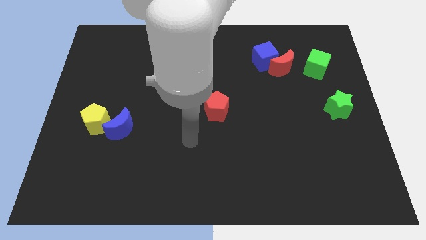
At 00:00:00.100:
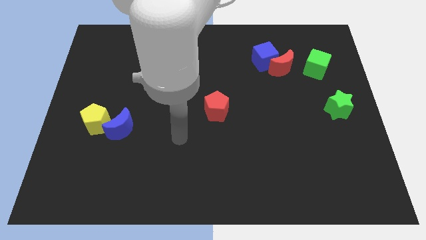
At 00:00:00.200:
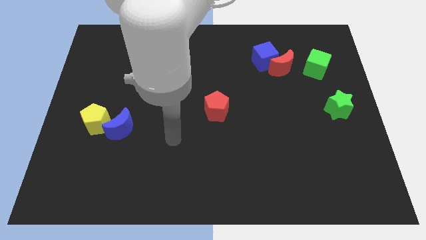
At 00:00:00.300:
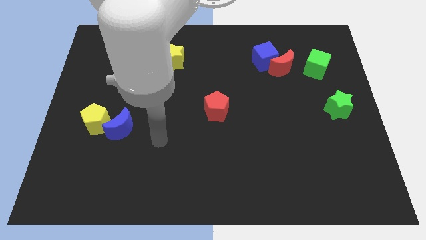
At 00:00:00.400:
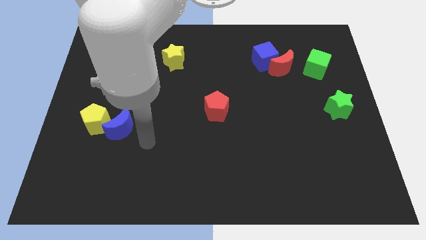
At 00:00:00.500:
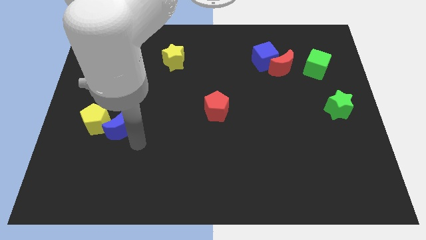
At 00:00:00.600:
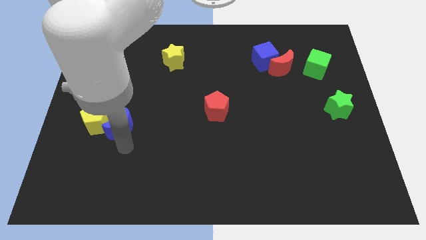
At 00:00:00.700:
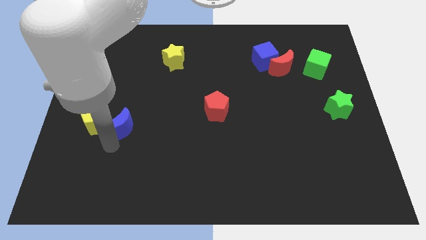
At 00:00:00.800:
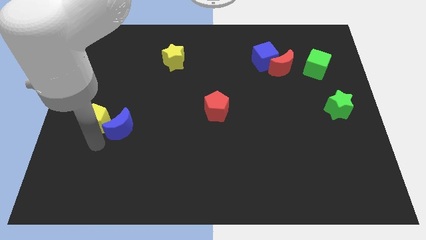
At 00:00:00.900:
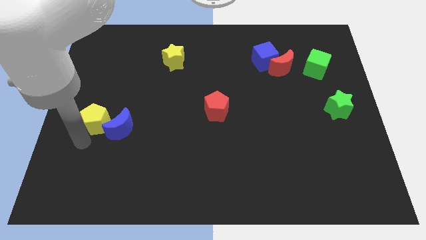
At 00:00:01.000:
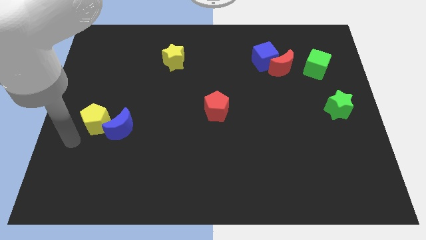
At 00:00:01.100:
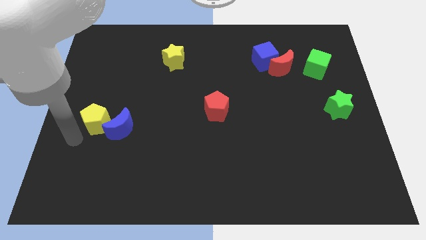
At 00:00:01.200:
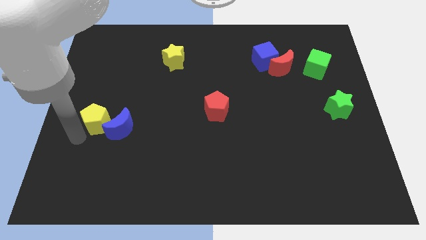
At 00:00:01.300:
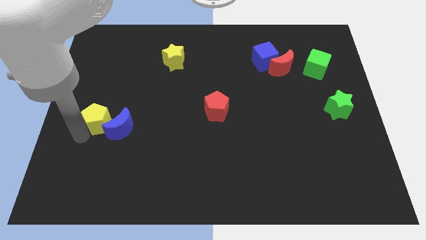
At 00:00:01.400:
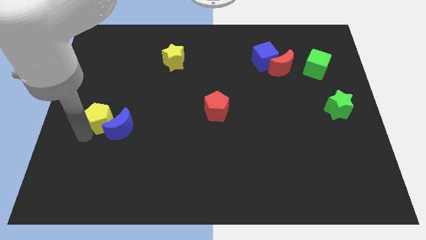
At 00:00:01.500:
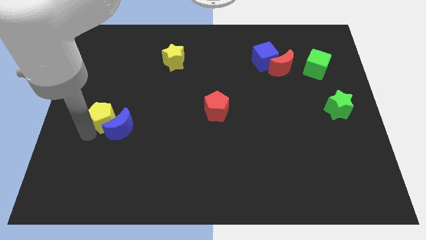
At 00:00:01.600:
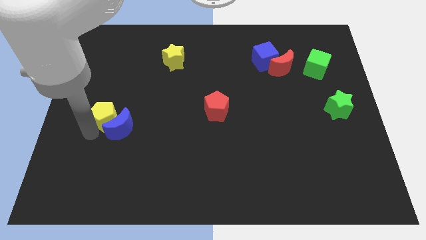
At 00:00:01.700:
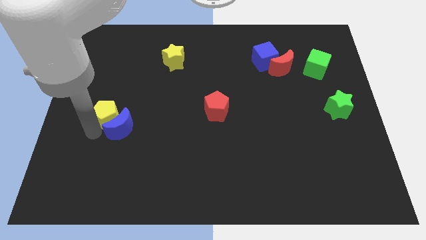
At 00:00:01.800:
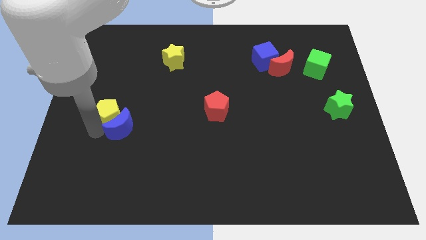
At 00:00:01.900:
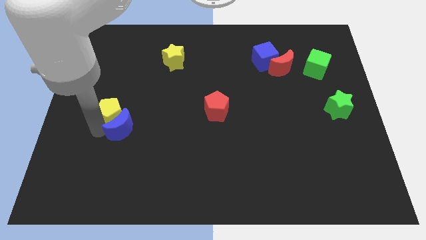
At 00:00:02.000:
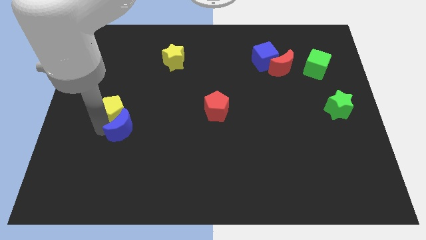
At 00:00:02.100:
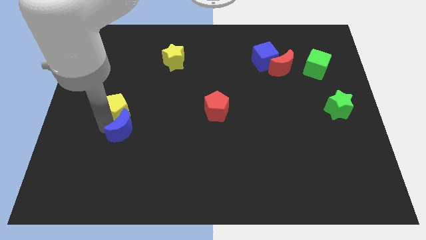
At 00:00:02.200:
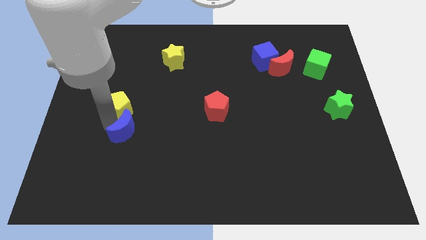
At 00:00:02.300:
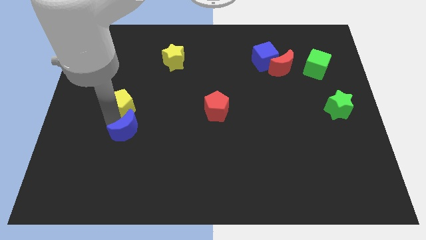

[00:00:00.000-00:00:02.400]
slightly slide the yellow pentagon diagonally up and to the right

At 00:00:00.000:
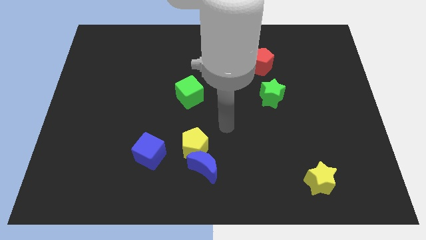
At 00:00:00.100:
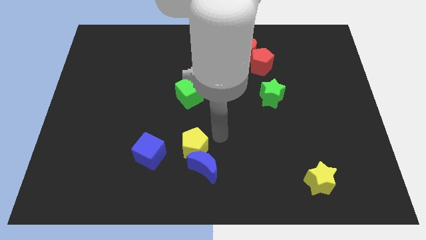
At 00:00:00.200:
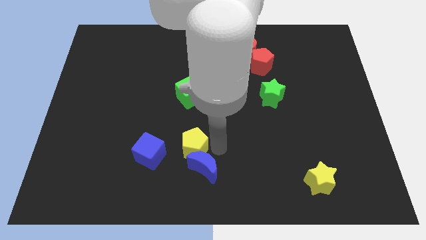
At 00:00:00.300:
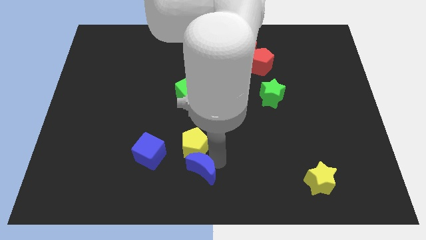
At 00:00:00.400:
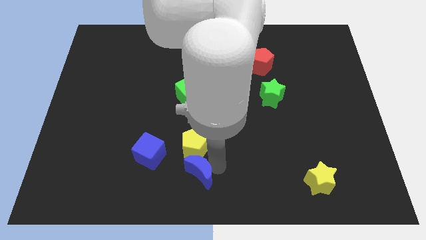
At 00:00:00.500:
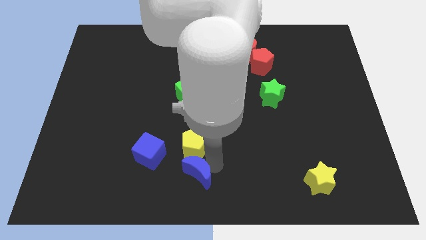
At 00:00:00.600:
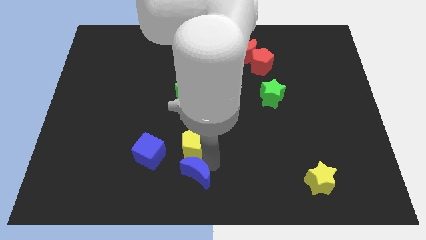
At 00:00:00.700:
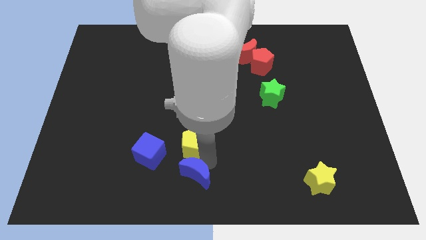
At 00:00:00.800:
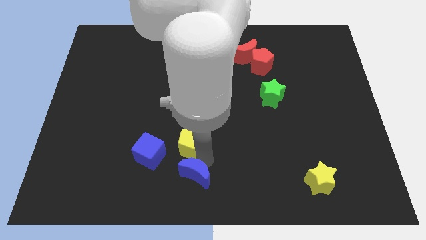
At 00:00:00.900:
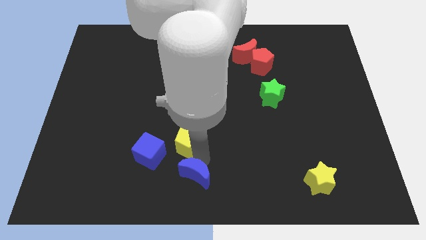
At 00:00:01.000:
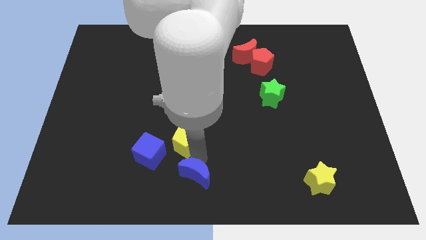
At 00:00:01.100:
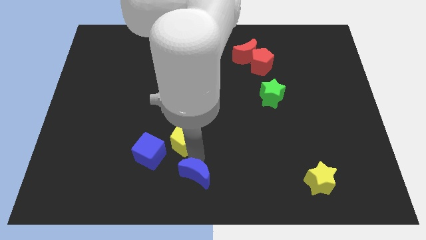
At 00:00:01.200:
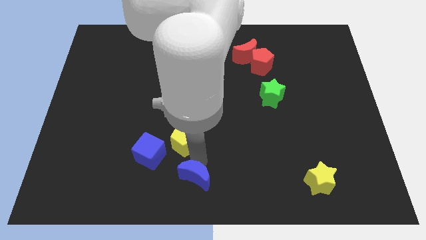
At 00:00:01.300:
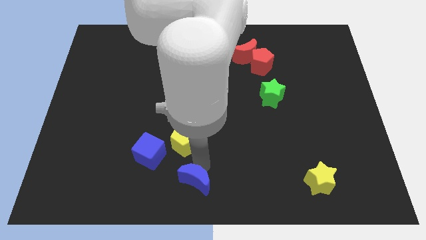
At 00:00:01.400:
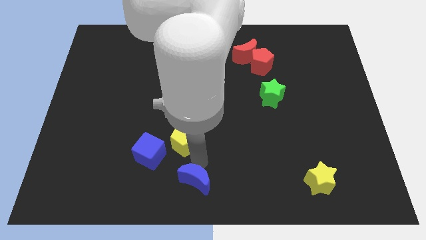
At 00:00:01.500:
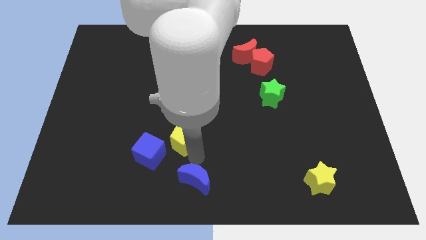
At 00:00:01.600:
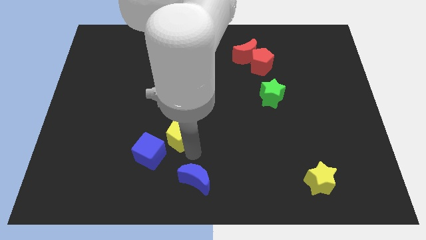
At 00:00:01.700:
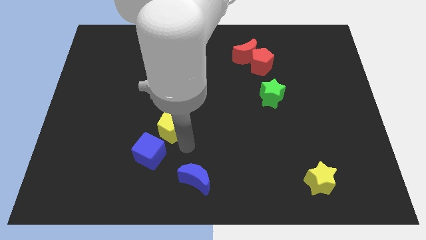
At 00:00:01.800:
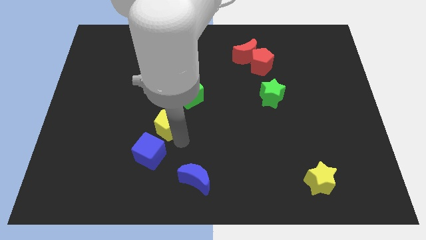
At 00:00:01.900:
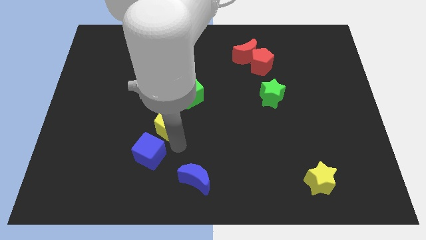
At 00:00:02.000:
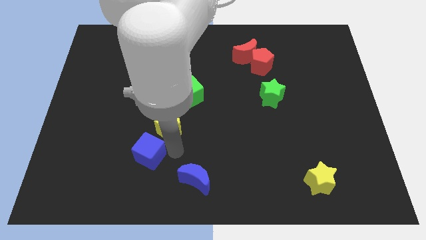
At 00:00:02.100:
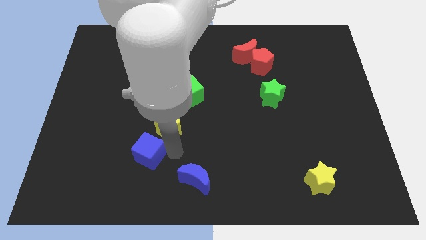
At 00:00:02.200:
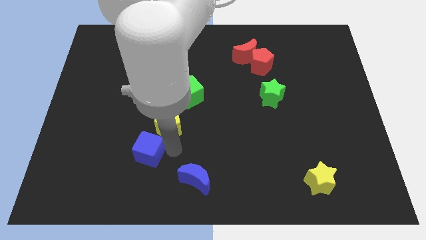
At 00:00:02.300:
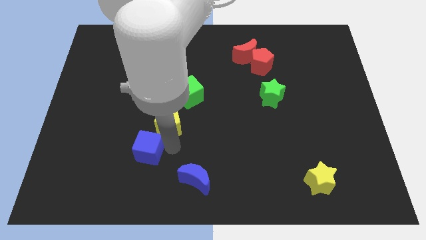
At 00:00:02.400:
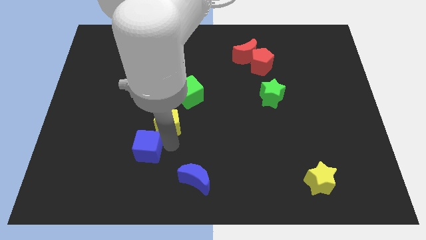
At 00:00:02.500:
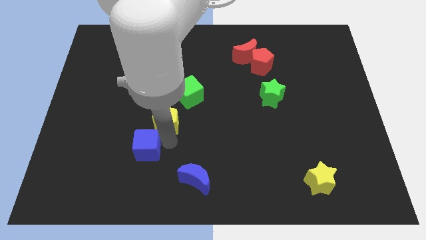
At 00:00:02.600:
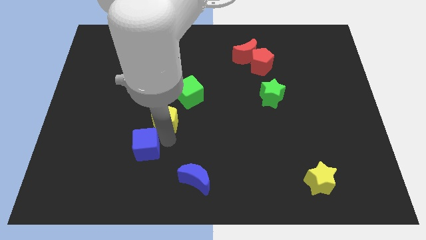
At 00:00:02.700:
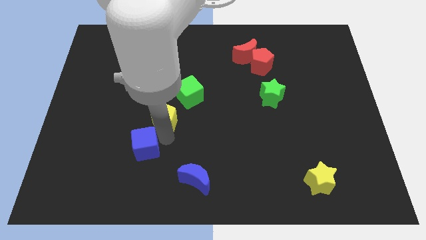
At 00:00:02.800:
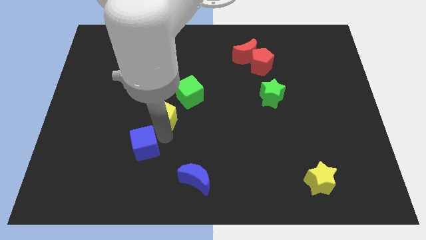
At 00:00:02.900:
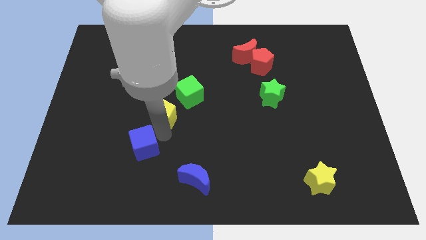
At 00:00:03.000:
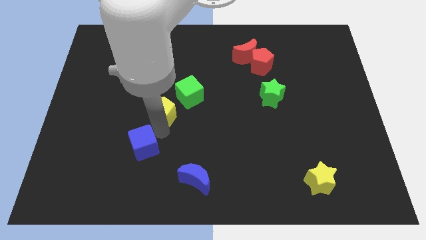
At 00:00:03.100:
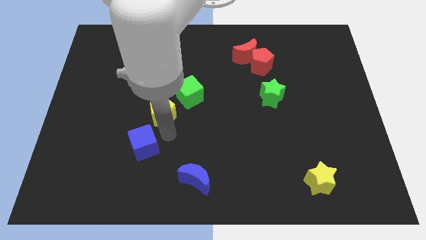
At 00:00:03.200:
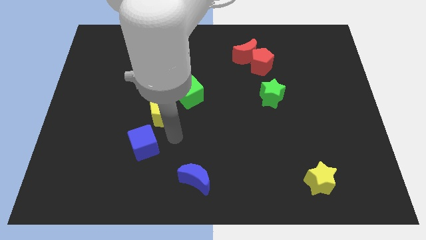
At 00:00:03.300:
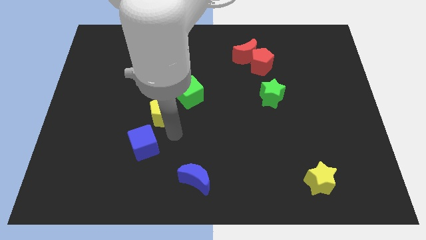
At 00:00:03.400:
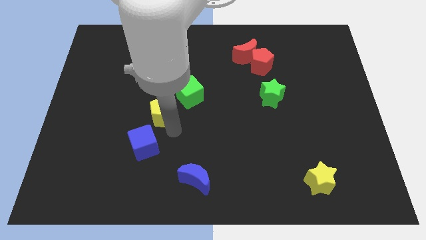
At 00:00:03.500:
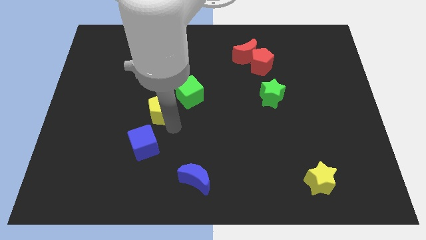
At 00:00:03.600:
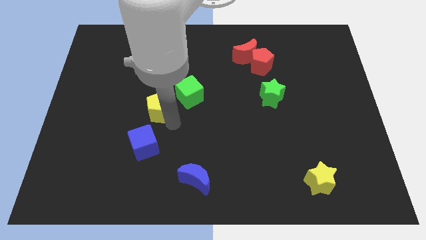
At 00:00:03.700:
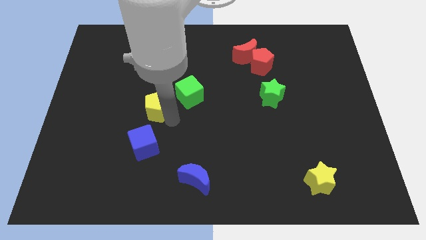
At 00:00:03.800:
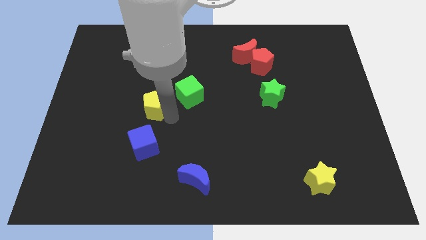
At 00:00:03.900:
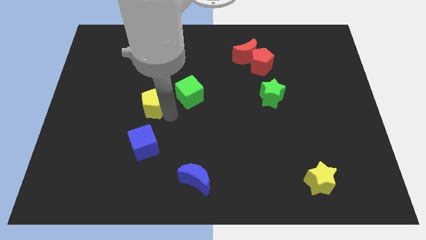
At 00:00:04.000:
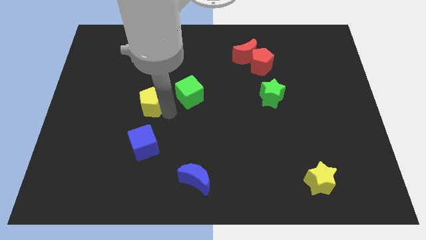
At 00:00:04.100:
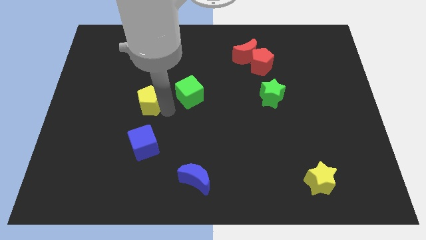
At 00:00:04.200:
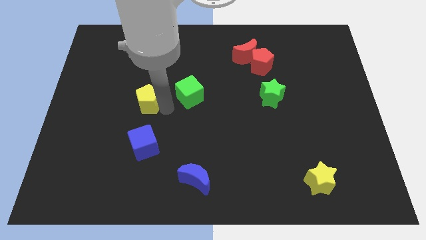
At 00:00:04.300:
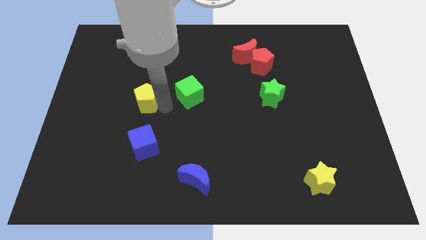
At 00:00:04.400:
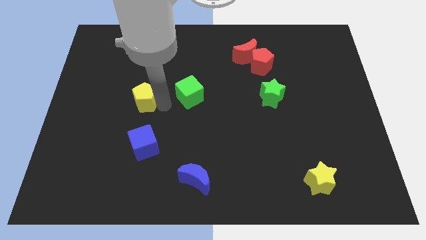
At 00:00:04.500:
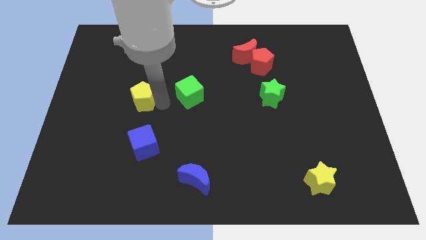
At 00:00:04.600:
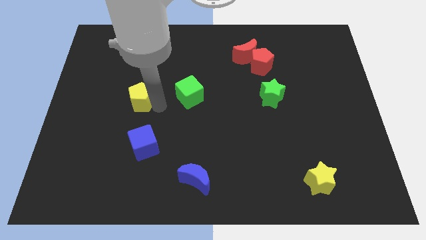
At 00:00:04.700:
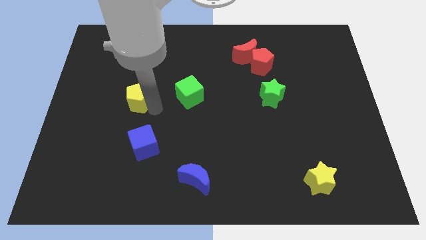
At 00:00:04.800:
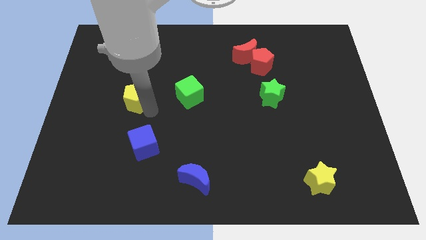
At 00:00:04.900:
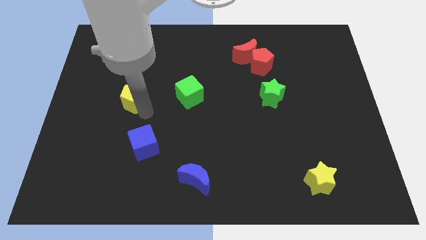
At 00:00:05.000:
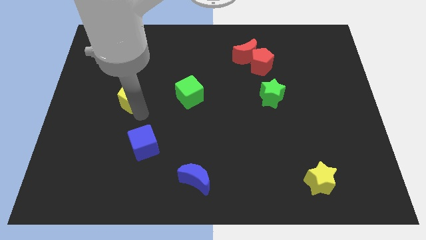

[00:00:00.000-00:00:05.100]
slide the yellow pentagon up and then to the left

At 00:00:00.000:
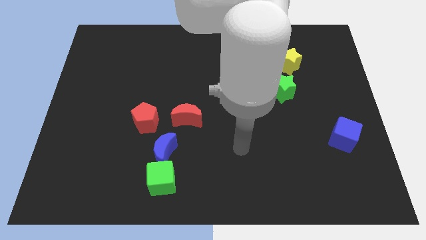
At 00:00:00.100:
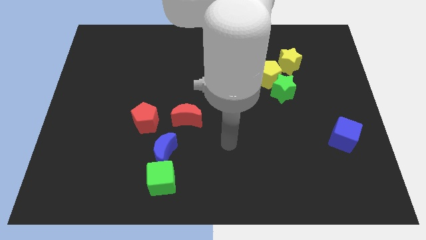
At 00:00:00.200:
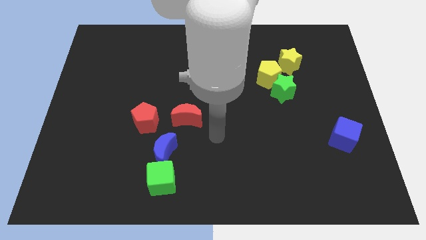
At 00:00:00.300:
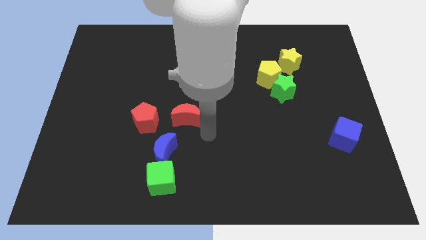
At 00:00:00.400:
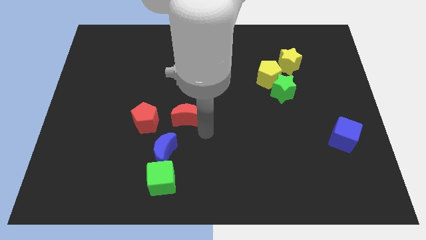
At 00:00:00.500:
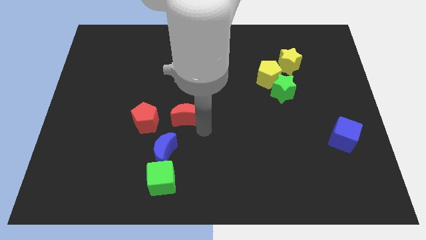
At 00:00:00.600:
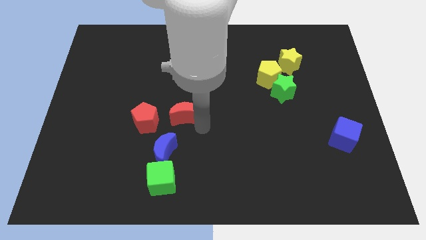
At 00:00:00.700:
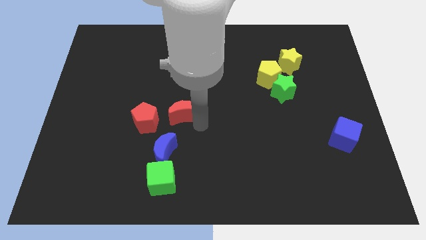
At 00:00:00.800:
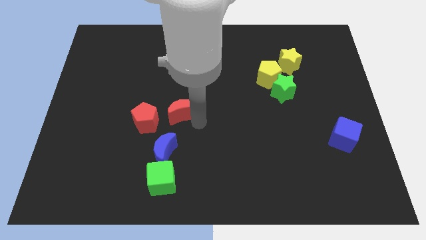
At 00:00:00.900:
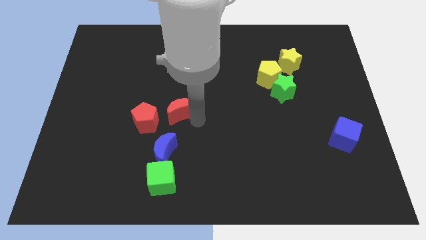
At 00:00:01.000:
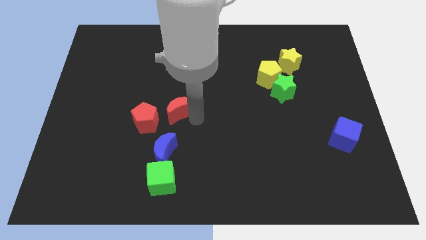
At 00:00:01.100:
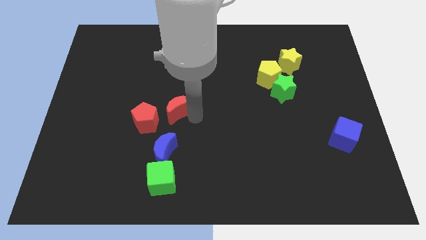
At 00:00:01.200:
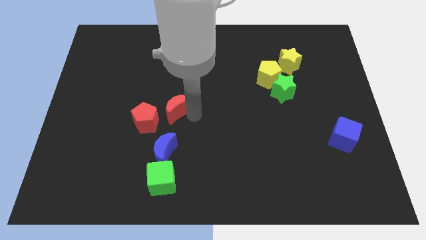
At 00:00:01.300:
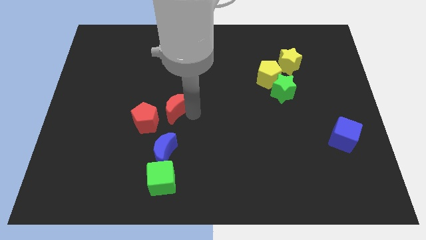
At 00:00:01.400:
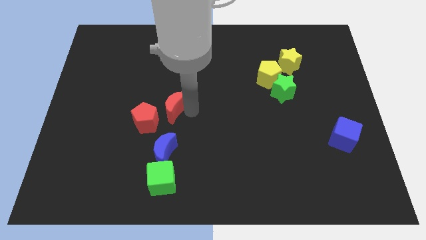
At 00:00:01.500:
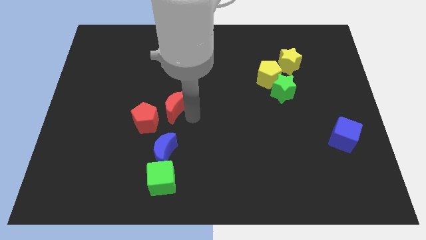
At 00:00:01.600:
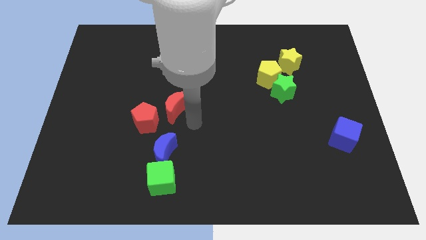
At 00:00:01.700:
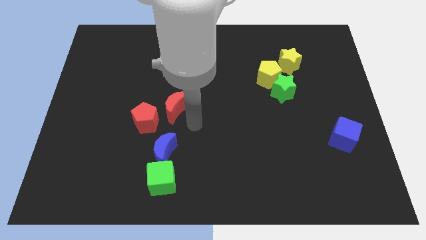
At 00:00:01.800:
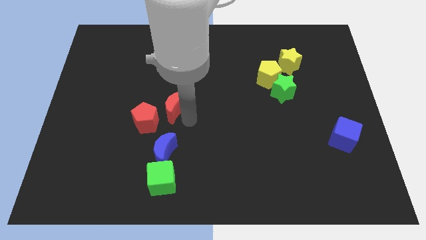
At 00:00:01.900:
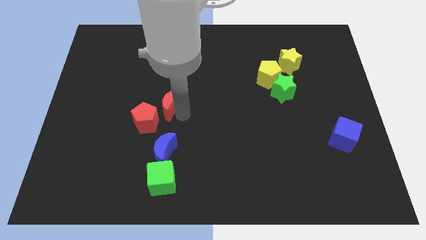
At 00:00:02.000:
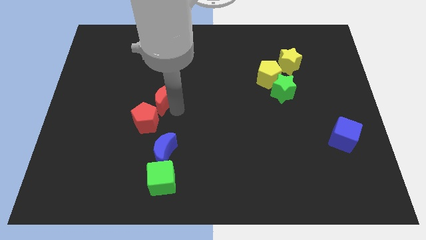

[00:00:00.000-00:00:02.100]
slightly slide the red moon up and left diagonally
